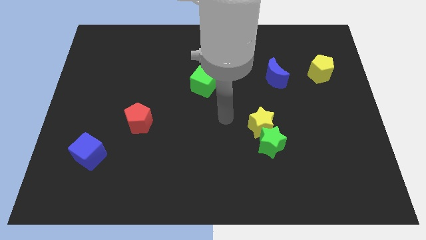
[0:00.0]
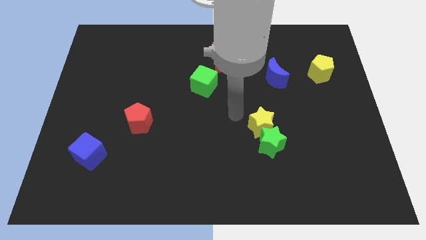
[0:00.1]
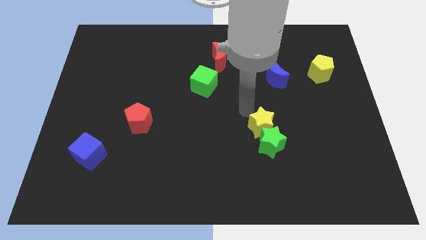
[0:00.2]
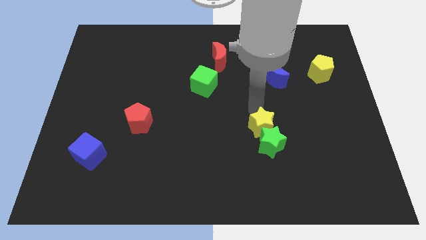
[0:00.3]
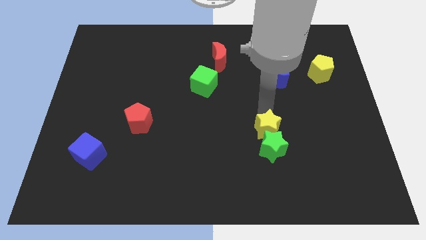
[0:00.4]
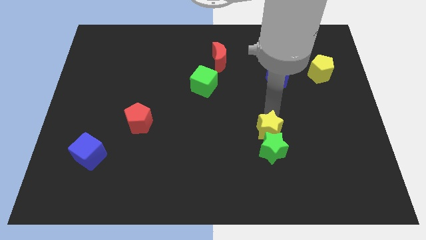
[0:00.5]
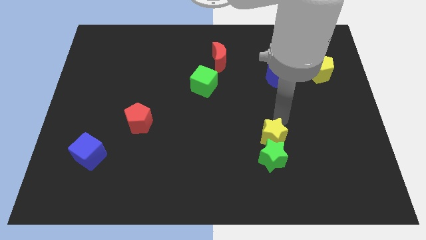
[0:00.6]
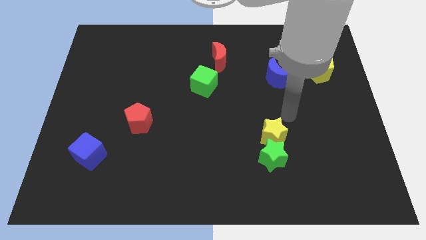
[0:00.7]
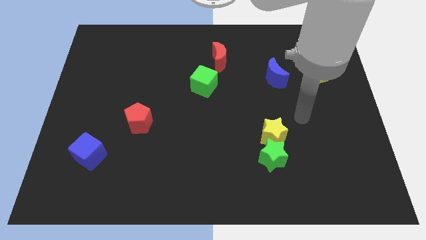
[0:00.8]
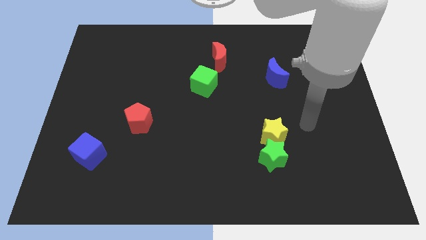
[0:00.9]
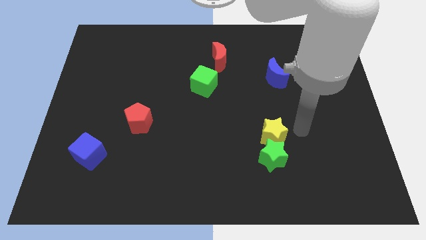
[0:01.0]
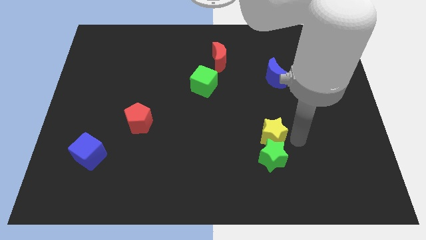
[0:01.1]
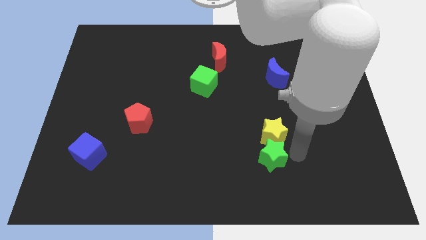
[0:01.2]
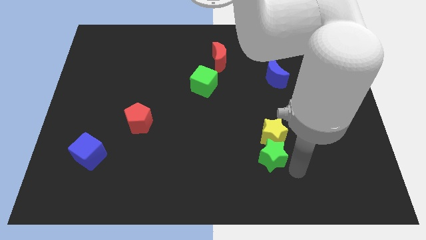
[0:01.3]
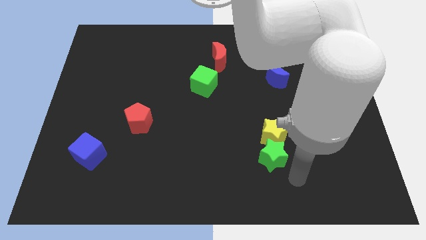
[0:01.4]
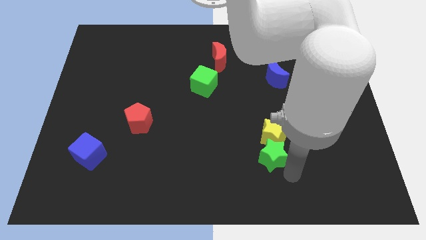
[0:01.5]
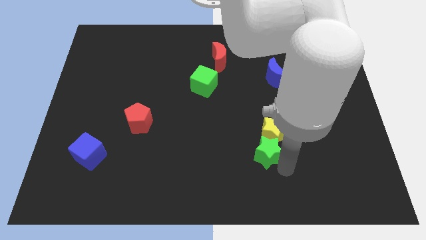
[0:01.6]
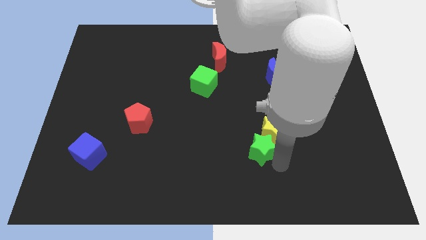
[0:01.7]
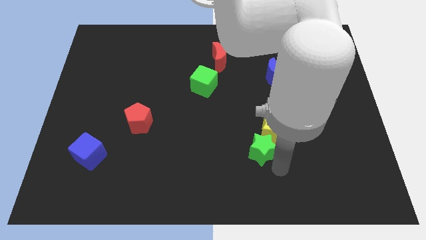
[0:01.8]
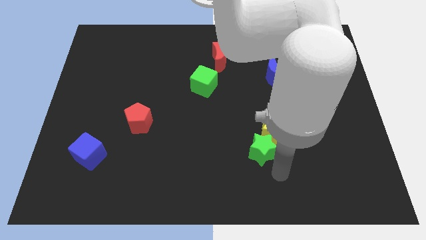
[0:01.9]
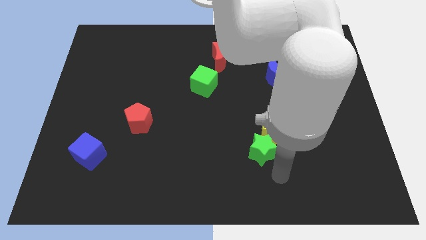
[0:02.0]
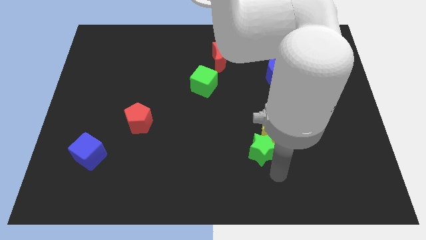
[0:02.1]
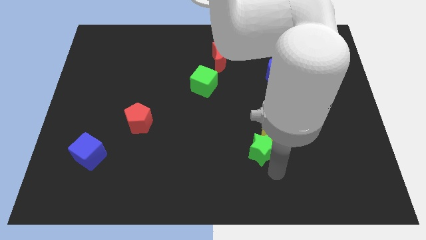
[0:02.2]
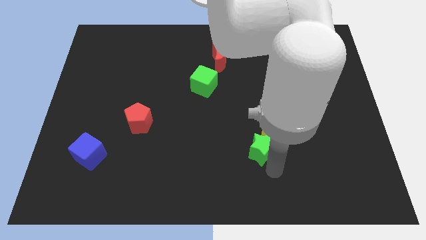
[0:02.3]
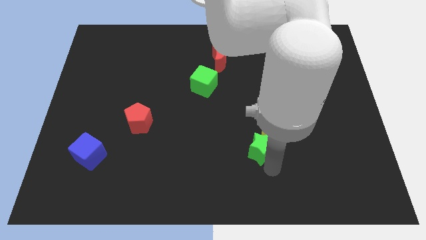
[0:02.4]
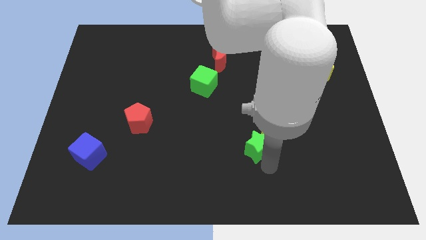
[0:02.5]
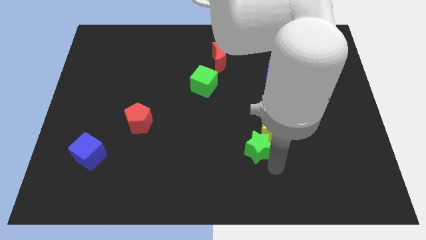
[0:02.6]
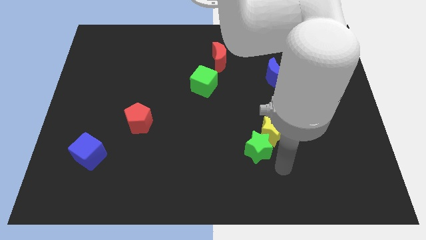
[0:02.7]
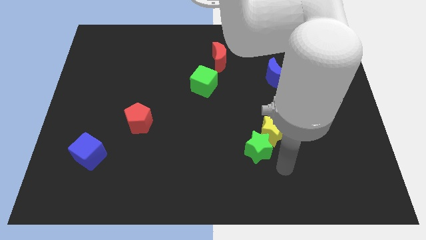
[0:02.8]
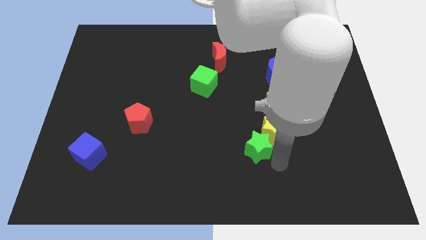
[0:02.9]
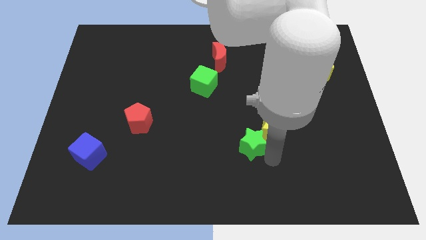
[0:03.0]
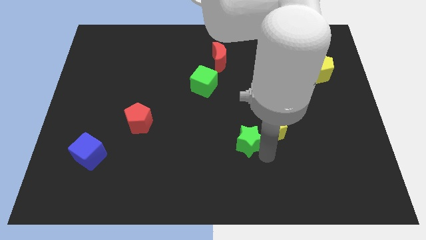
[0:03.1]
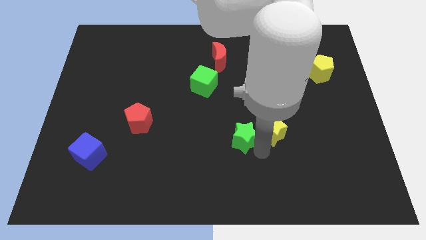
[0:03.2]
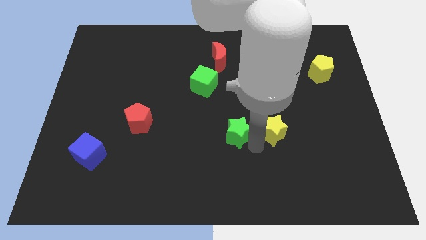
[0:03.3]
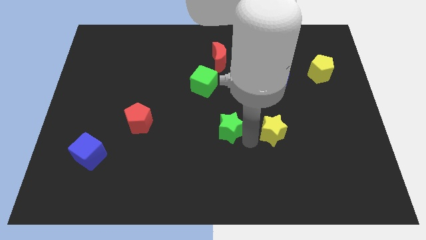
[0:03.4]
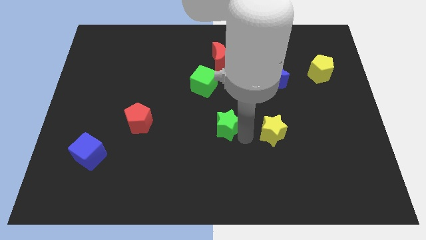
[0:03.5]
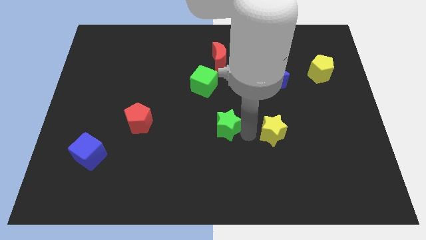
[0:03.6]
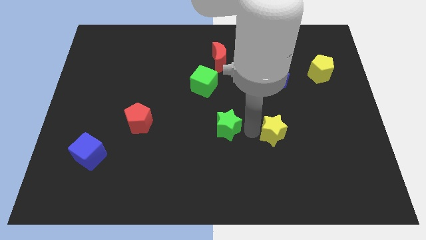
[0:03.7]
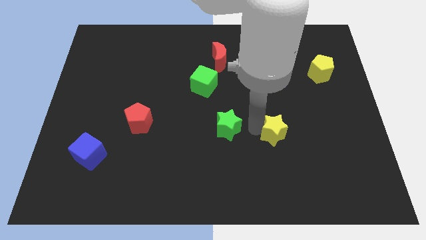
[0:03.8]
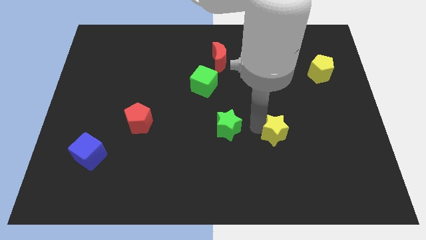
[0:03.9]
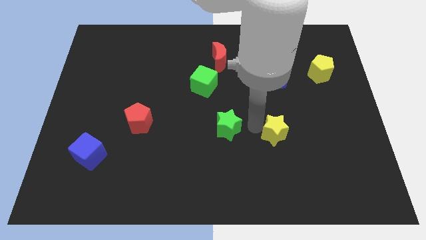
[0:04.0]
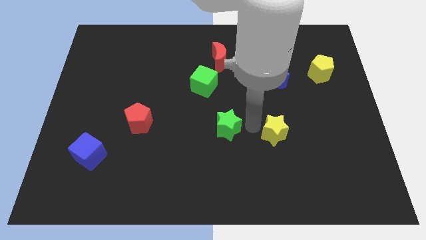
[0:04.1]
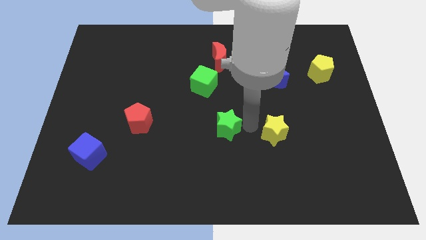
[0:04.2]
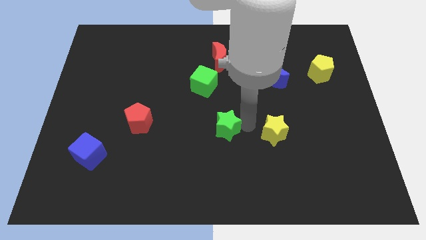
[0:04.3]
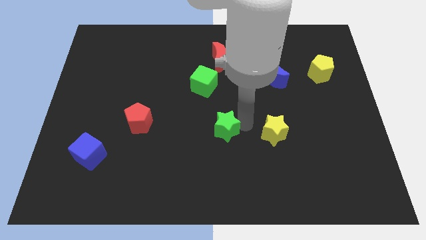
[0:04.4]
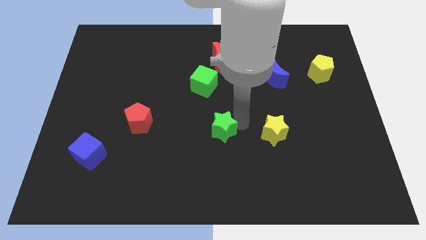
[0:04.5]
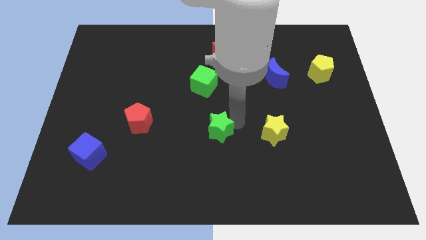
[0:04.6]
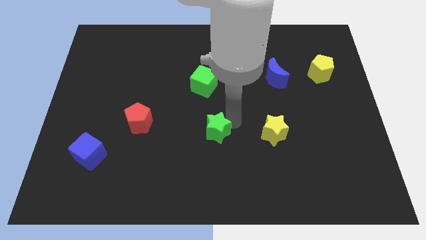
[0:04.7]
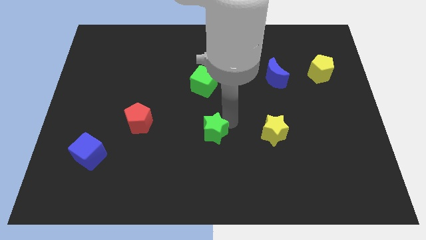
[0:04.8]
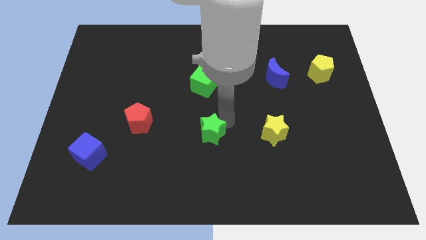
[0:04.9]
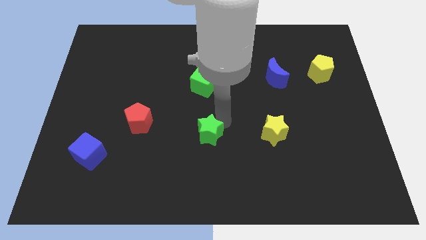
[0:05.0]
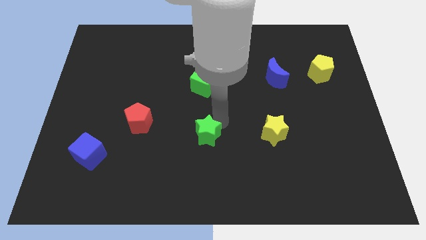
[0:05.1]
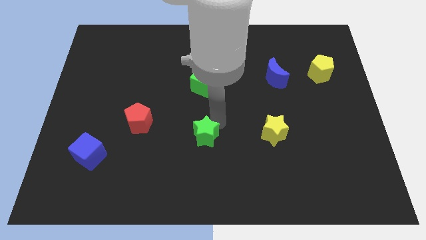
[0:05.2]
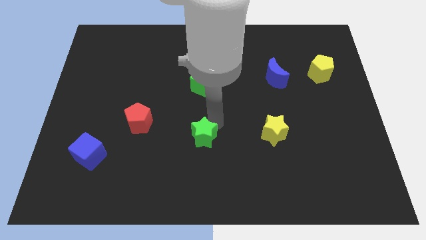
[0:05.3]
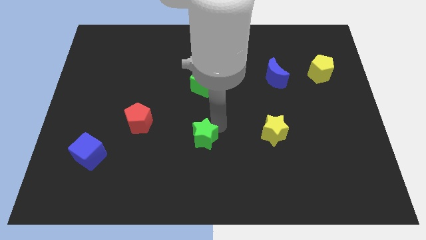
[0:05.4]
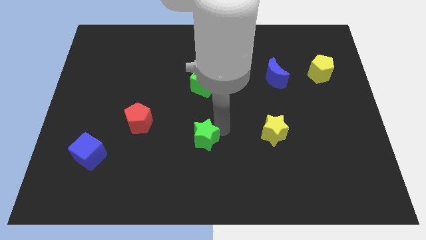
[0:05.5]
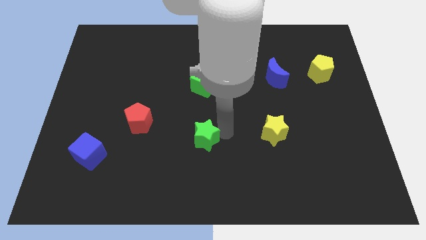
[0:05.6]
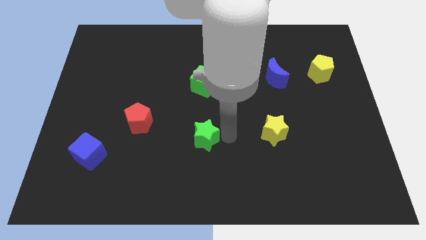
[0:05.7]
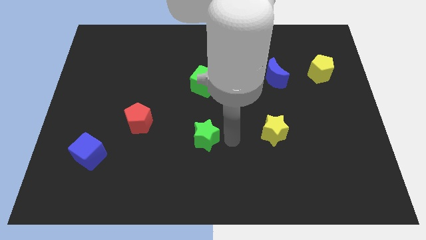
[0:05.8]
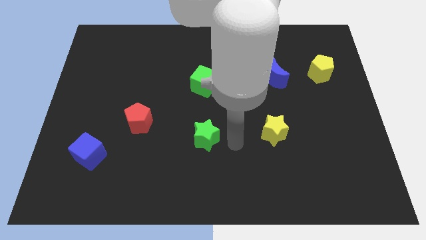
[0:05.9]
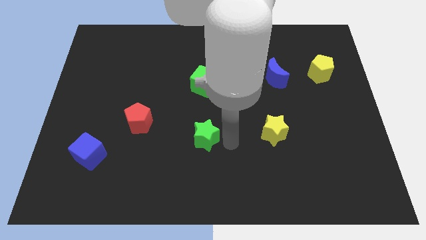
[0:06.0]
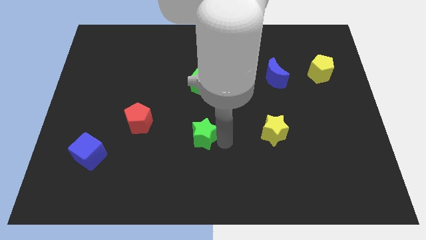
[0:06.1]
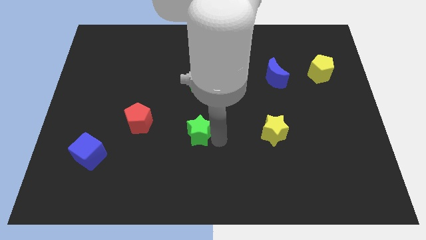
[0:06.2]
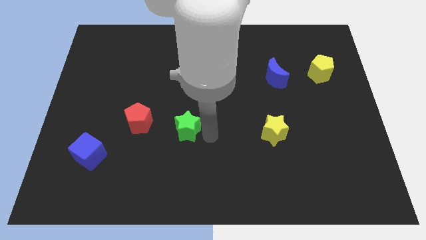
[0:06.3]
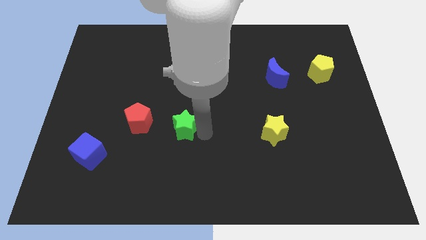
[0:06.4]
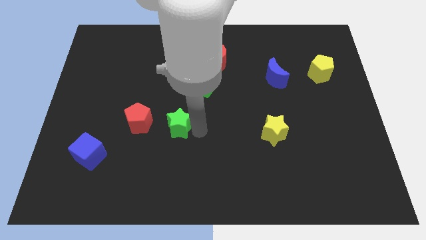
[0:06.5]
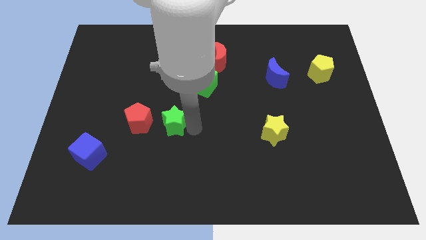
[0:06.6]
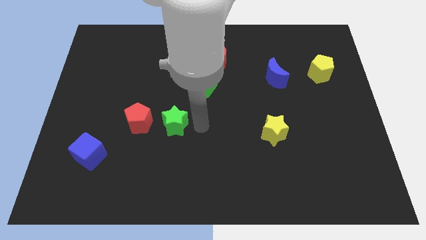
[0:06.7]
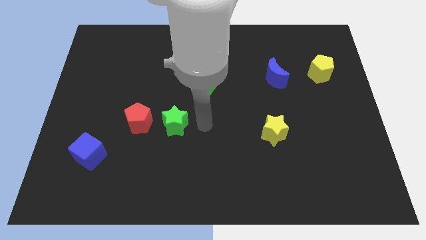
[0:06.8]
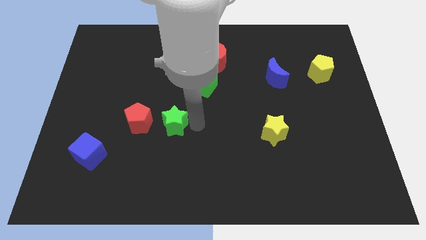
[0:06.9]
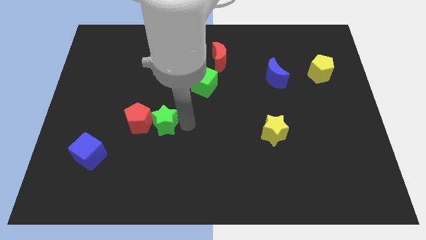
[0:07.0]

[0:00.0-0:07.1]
slide the green star to the red pentagon
